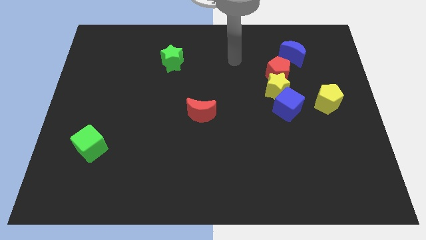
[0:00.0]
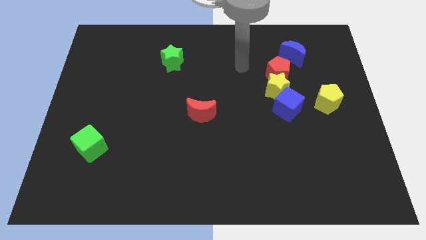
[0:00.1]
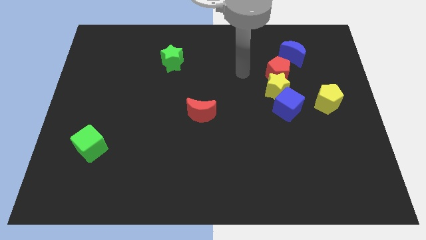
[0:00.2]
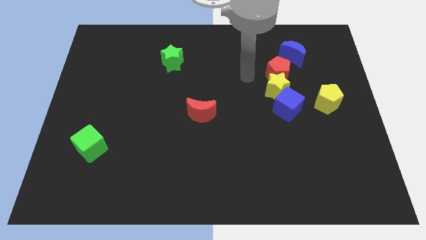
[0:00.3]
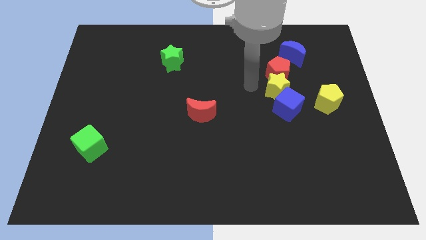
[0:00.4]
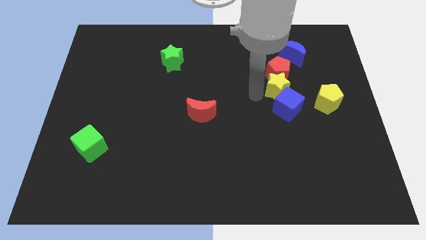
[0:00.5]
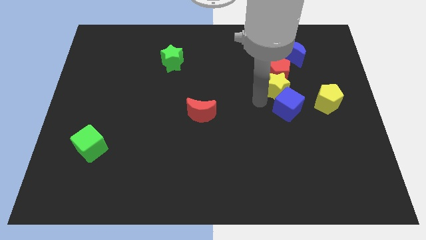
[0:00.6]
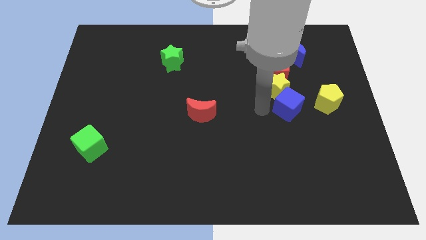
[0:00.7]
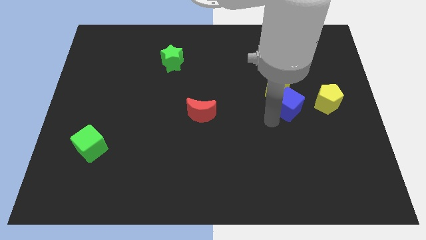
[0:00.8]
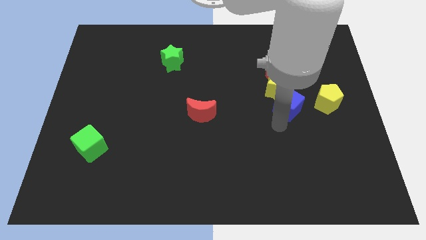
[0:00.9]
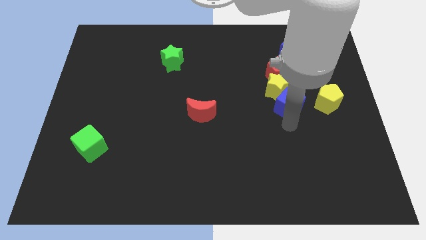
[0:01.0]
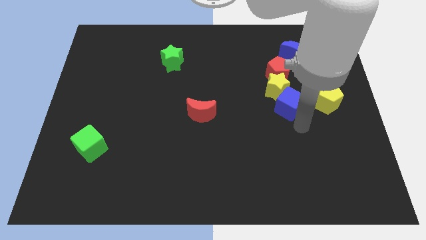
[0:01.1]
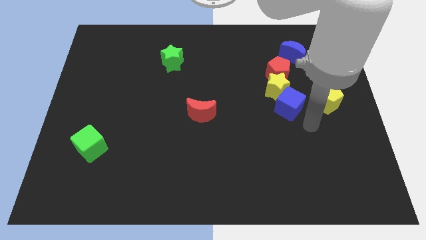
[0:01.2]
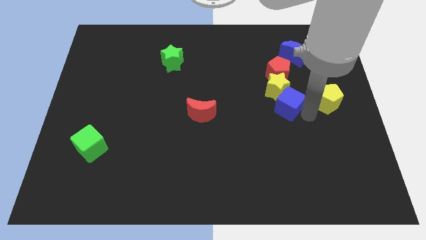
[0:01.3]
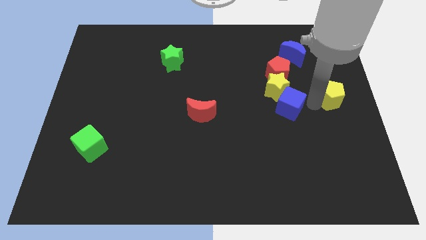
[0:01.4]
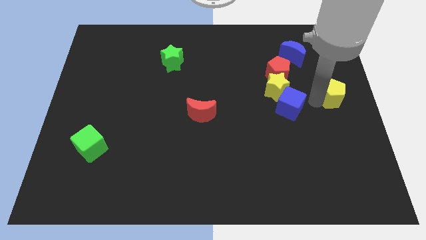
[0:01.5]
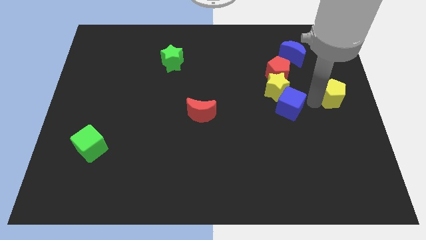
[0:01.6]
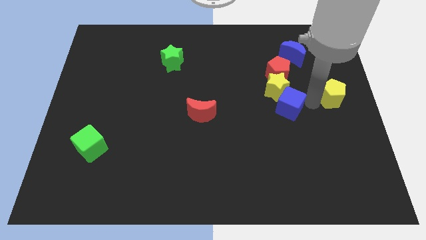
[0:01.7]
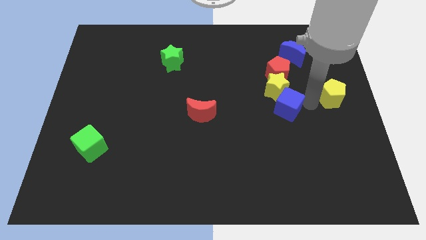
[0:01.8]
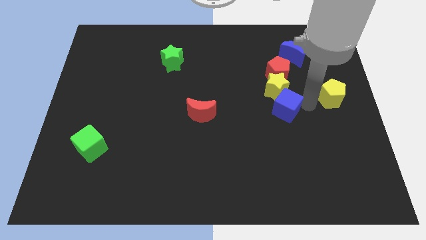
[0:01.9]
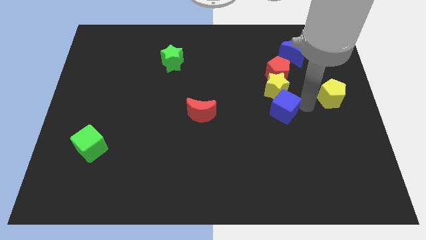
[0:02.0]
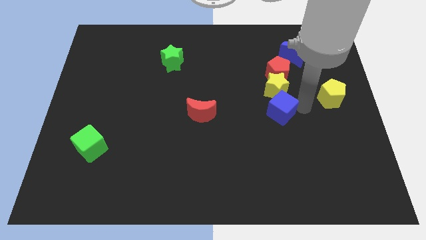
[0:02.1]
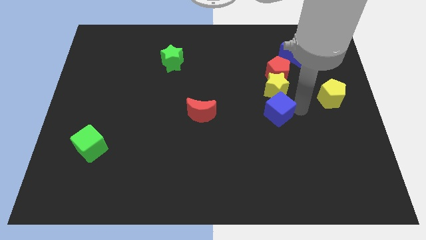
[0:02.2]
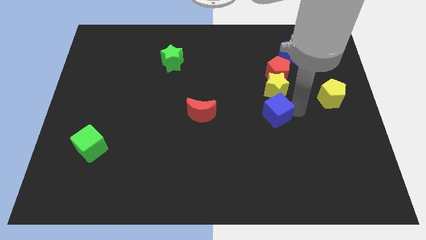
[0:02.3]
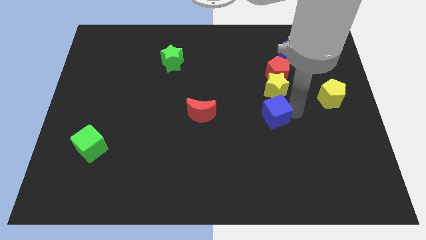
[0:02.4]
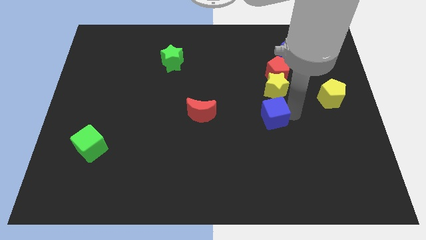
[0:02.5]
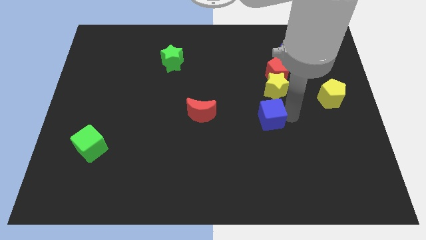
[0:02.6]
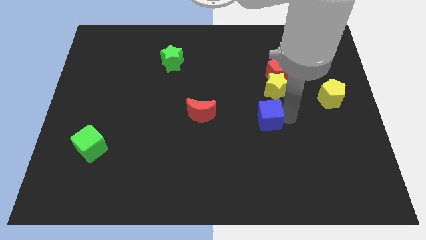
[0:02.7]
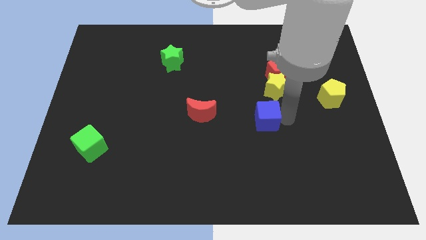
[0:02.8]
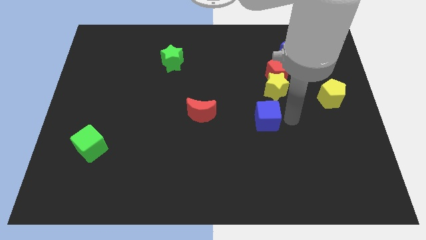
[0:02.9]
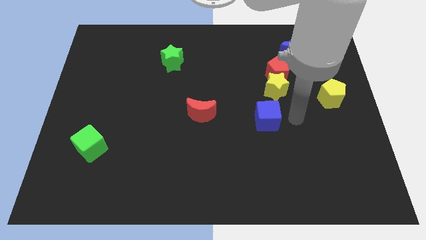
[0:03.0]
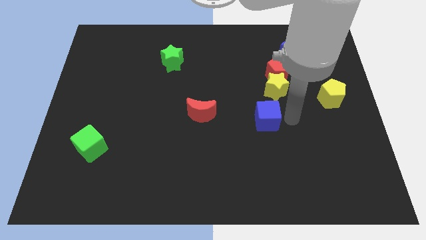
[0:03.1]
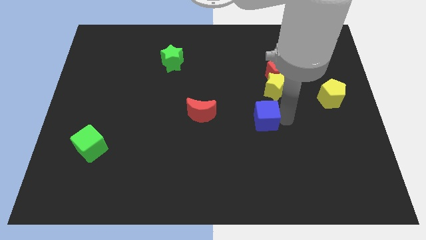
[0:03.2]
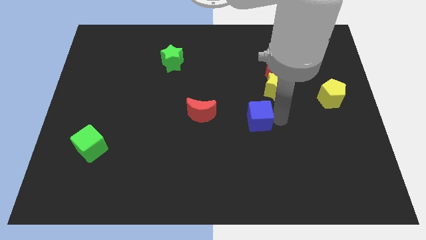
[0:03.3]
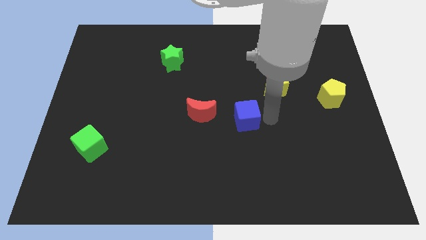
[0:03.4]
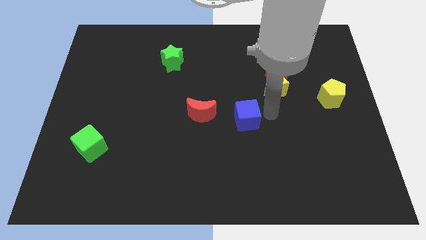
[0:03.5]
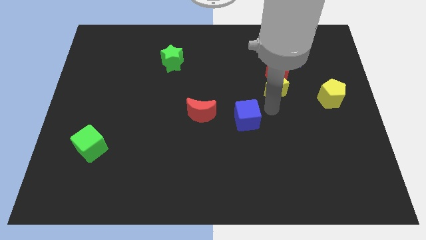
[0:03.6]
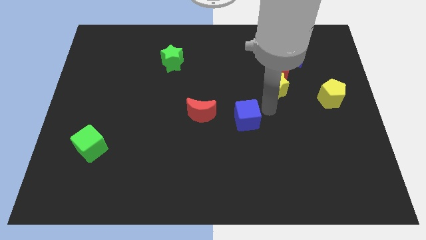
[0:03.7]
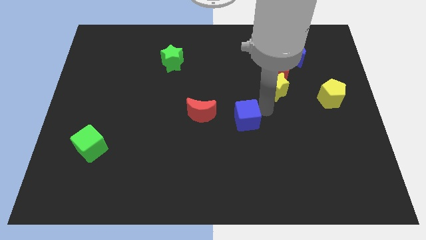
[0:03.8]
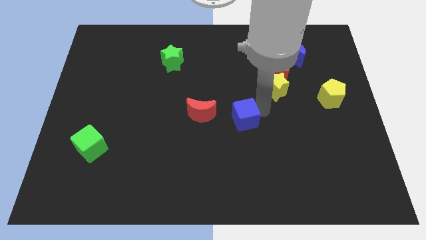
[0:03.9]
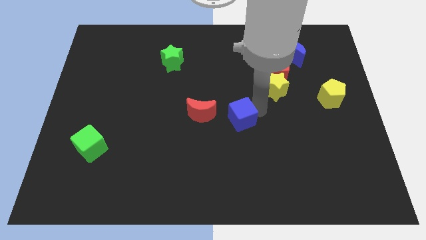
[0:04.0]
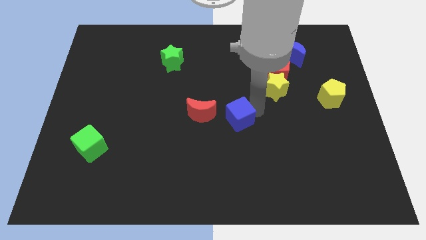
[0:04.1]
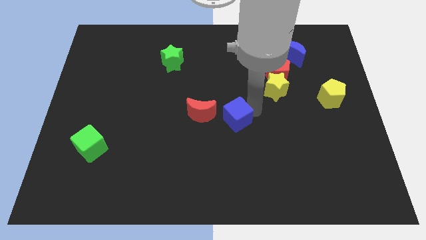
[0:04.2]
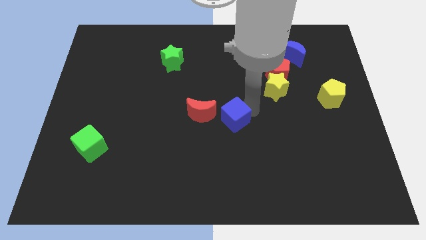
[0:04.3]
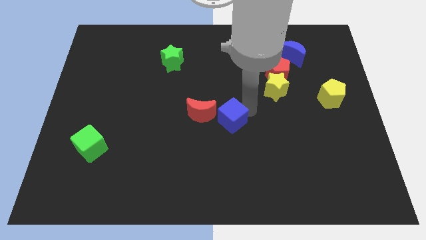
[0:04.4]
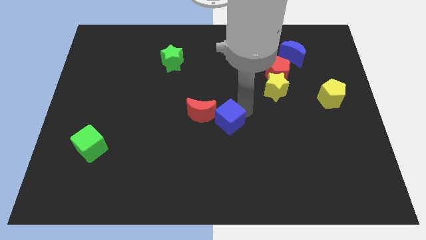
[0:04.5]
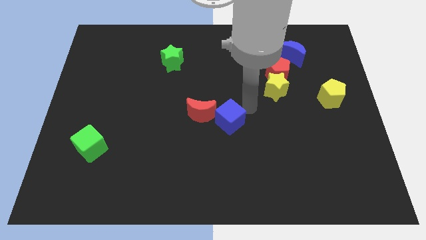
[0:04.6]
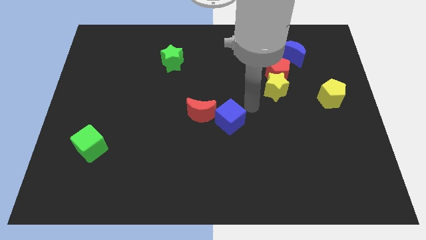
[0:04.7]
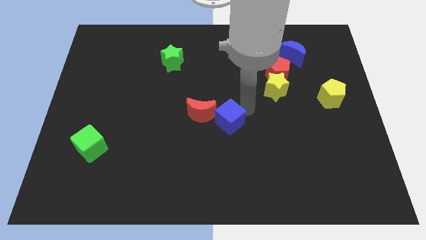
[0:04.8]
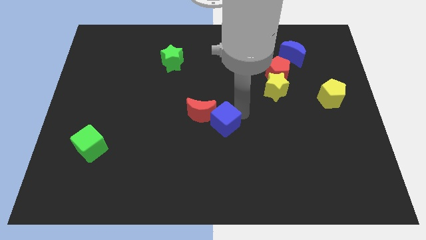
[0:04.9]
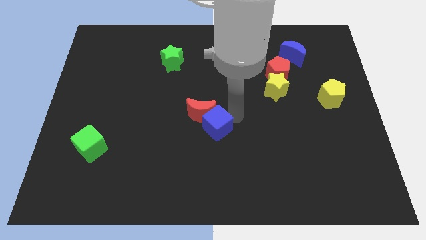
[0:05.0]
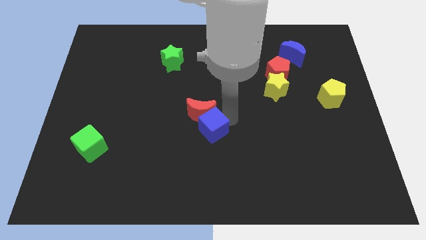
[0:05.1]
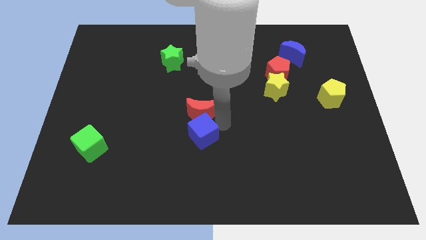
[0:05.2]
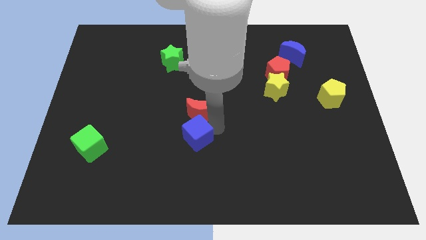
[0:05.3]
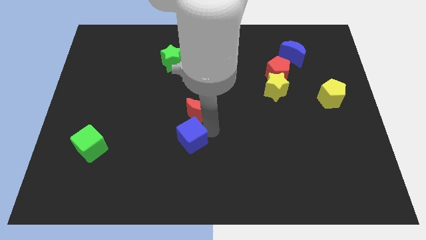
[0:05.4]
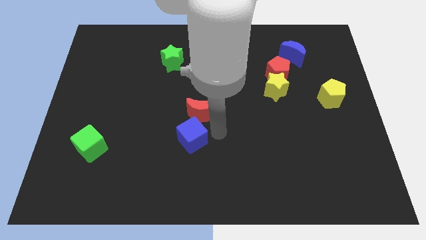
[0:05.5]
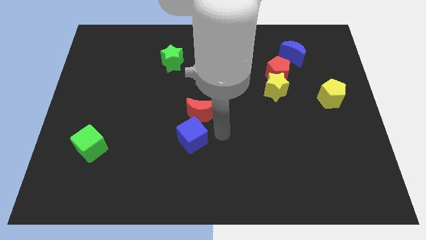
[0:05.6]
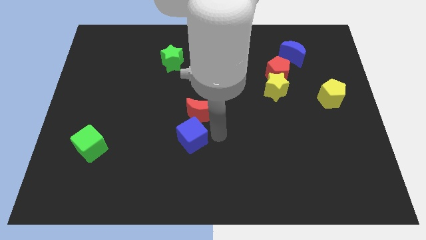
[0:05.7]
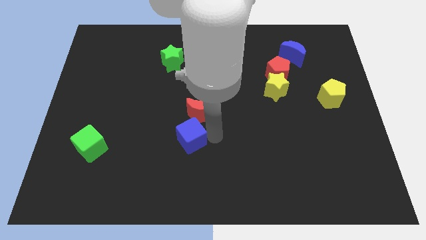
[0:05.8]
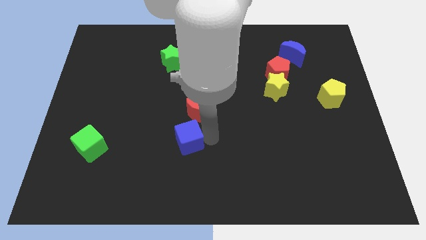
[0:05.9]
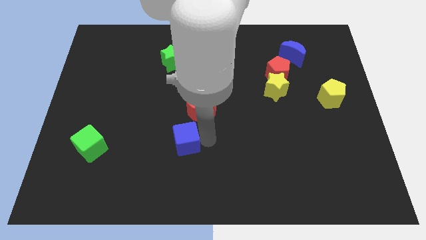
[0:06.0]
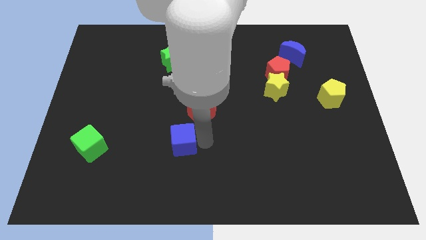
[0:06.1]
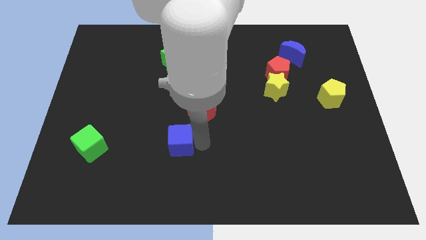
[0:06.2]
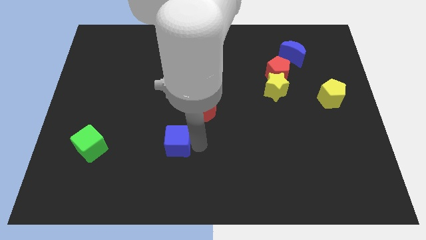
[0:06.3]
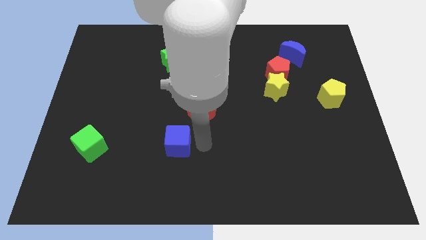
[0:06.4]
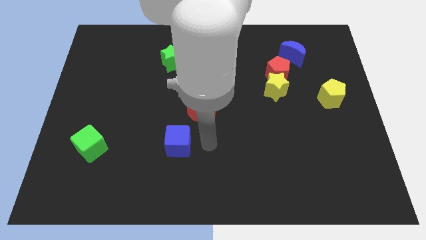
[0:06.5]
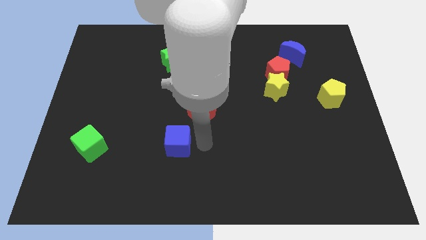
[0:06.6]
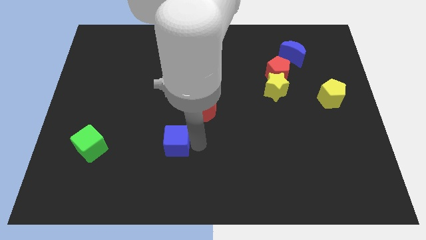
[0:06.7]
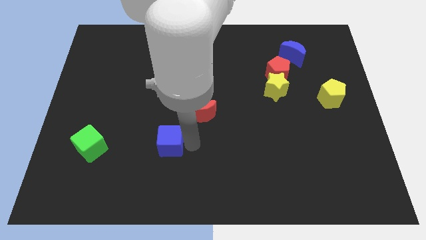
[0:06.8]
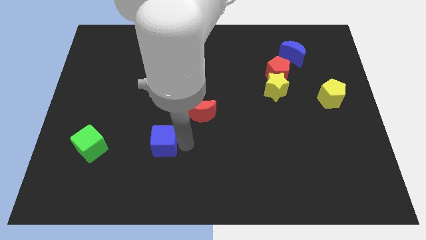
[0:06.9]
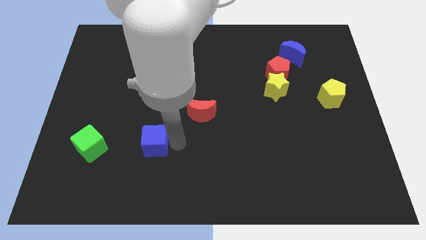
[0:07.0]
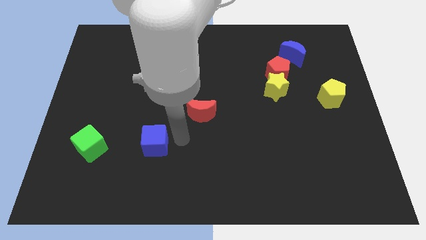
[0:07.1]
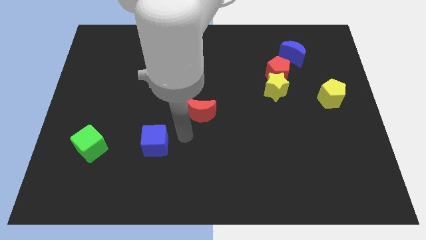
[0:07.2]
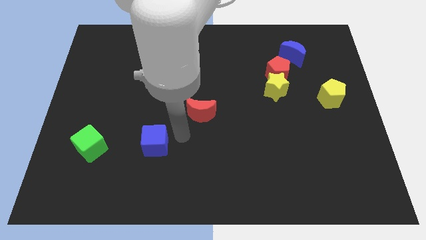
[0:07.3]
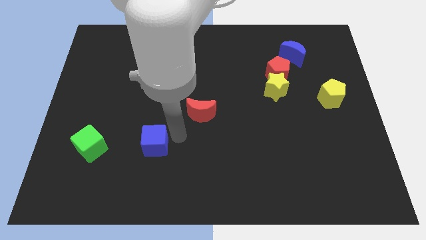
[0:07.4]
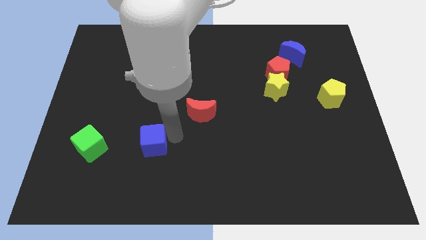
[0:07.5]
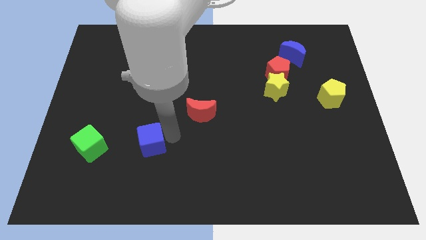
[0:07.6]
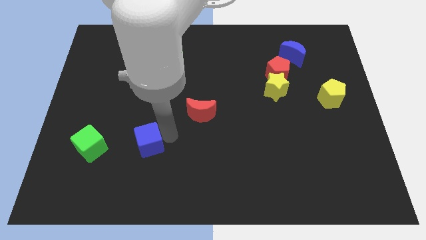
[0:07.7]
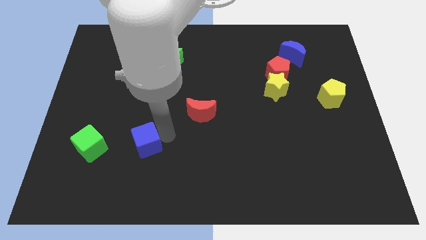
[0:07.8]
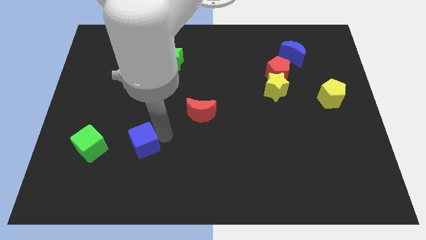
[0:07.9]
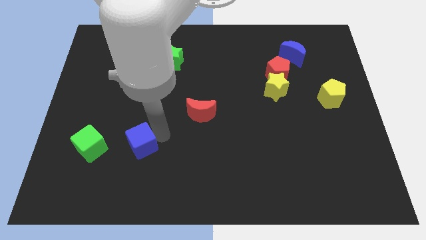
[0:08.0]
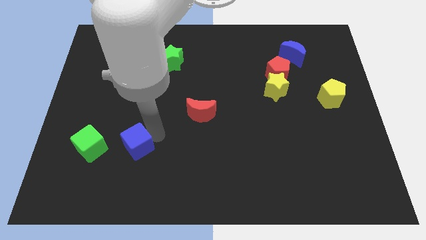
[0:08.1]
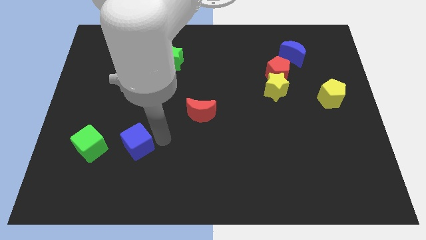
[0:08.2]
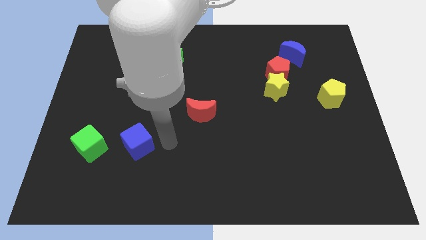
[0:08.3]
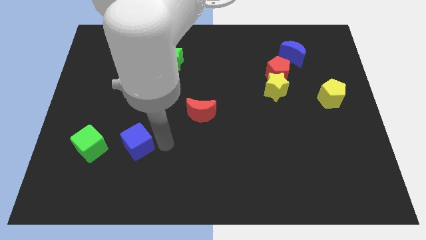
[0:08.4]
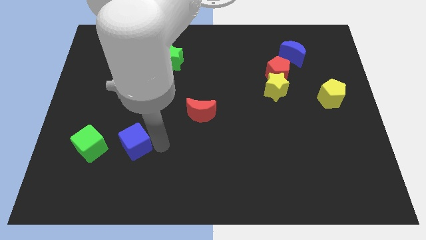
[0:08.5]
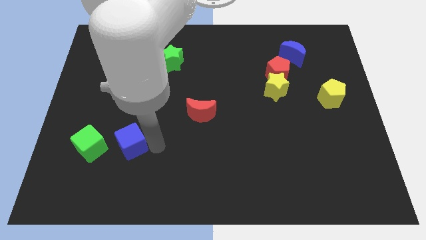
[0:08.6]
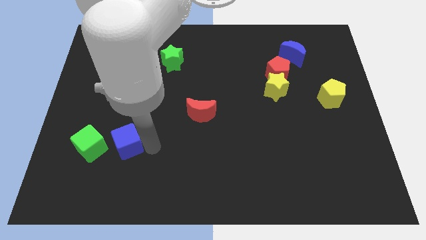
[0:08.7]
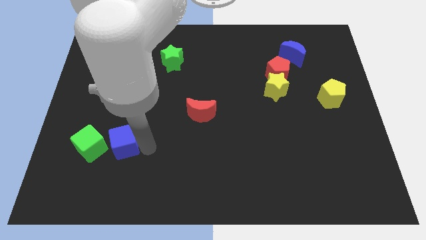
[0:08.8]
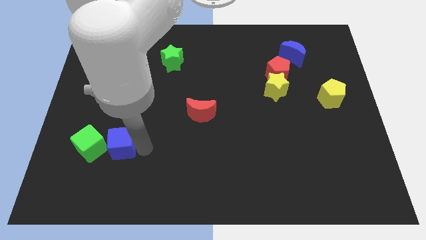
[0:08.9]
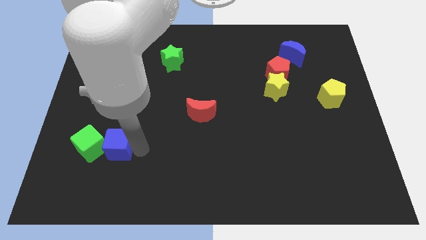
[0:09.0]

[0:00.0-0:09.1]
move the blue cube towards the green cube
